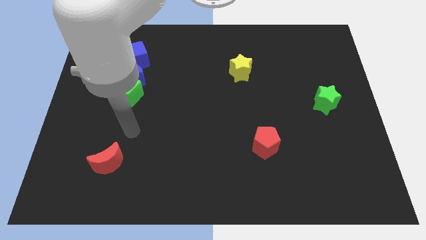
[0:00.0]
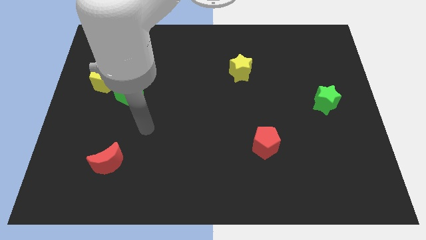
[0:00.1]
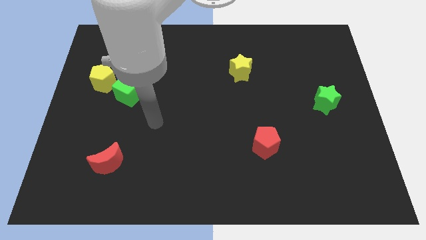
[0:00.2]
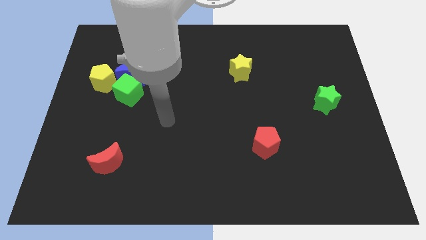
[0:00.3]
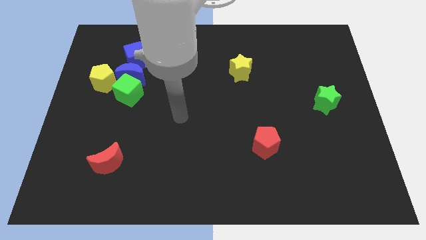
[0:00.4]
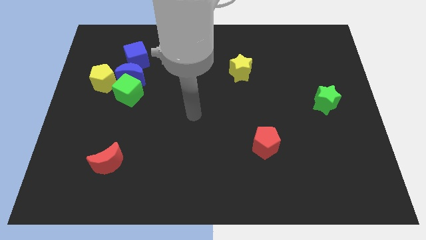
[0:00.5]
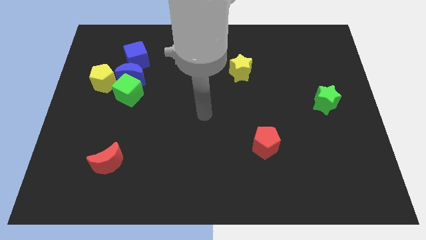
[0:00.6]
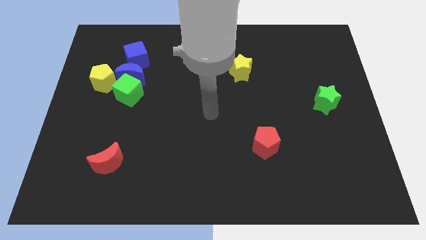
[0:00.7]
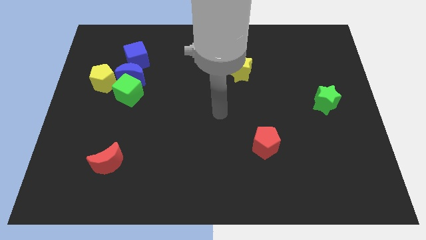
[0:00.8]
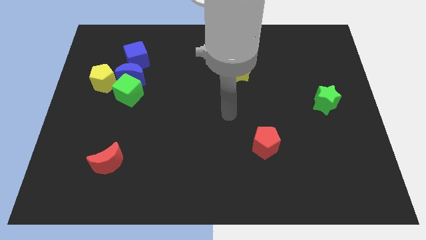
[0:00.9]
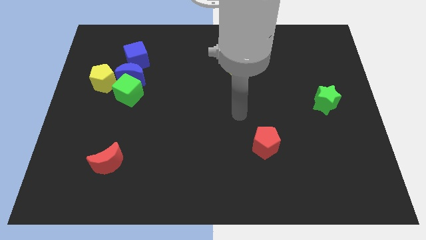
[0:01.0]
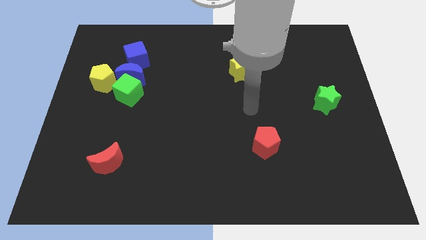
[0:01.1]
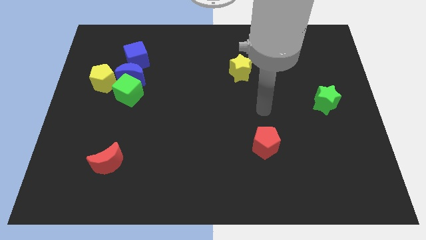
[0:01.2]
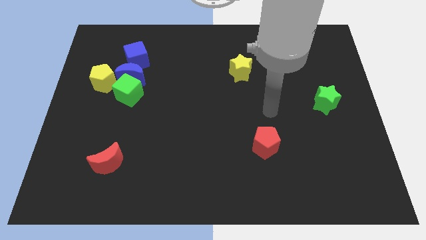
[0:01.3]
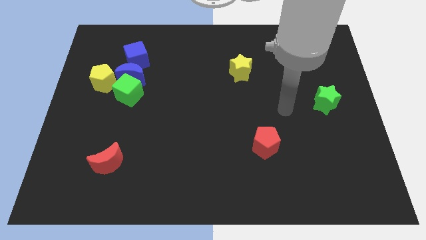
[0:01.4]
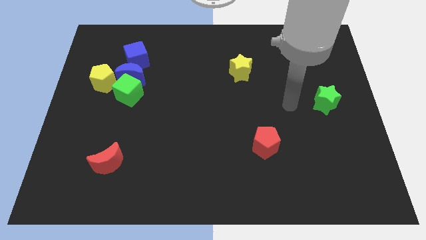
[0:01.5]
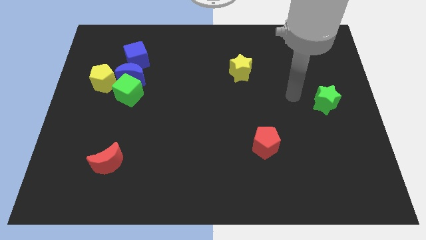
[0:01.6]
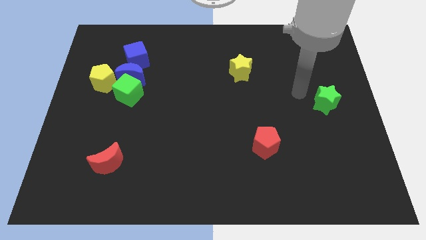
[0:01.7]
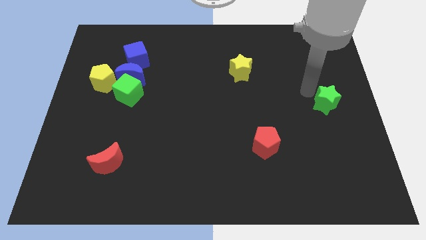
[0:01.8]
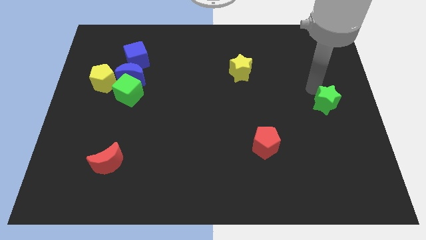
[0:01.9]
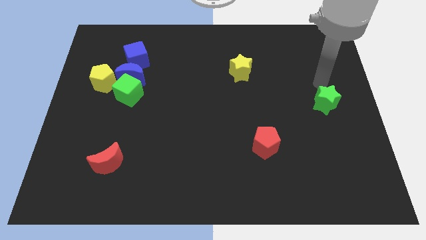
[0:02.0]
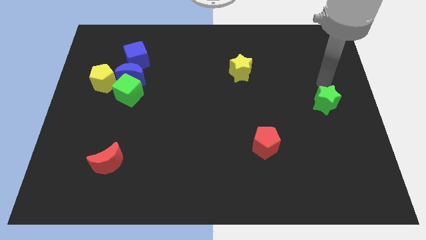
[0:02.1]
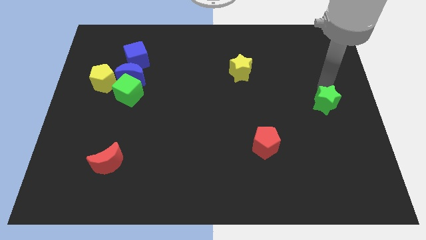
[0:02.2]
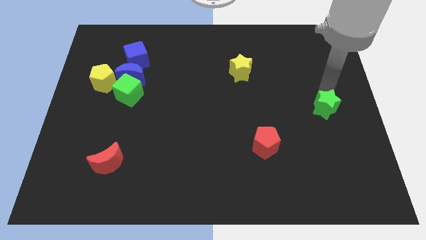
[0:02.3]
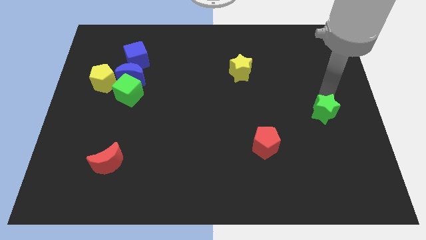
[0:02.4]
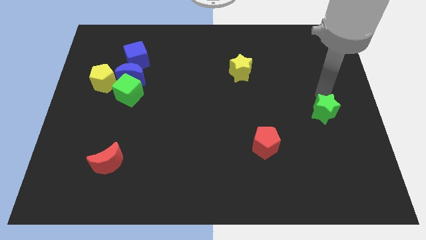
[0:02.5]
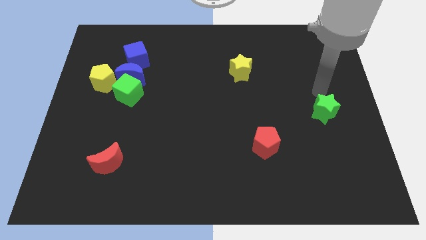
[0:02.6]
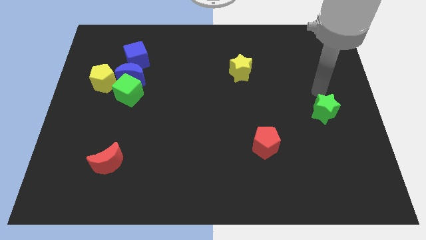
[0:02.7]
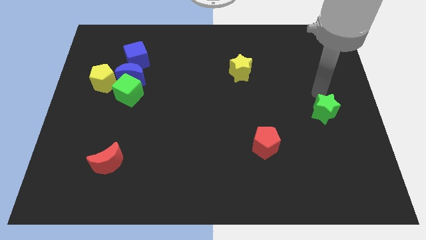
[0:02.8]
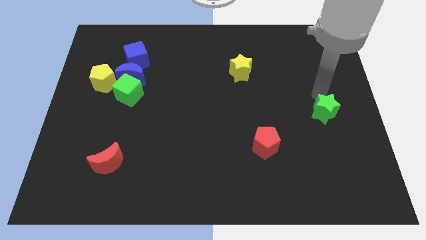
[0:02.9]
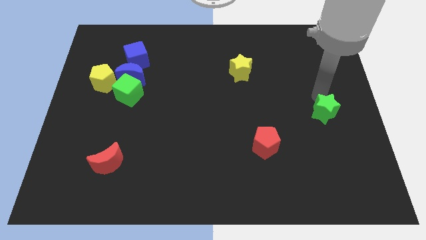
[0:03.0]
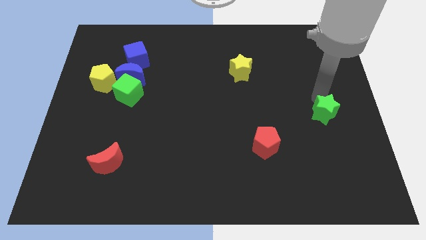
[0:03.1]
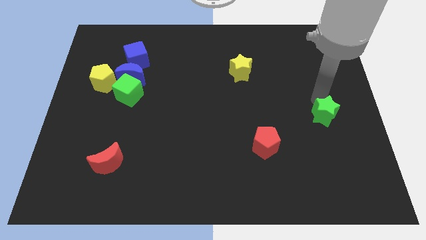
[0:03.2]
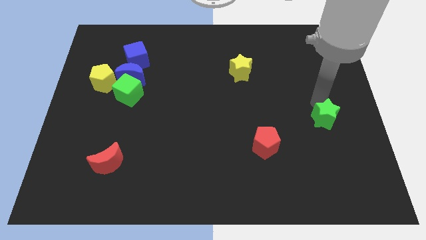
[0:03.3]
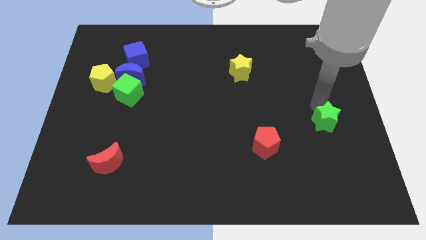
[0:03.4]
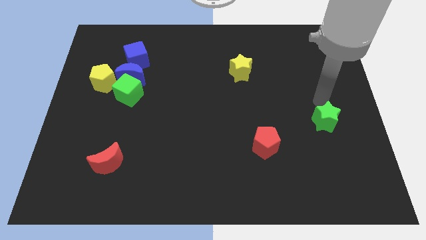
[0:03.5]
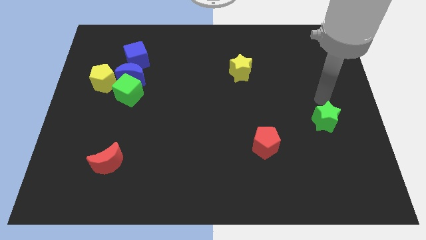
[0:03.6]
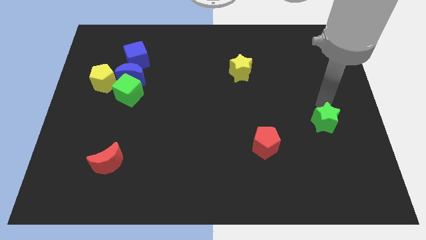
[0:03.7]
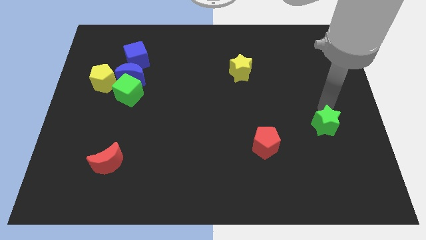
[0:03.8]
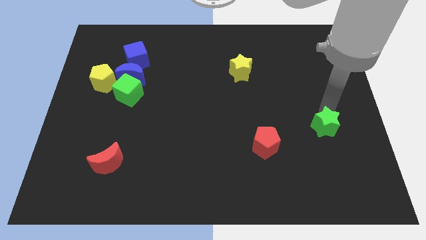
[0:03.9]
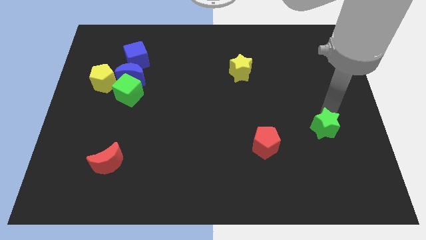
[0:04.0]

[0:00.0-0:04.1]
slide the green star slightly down

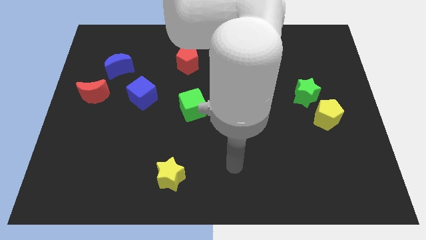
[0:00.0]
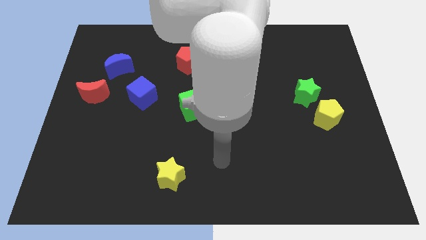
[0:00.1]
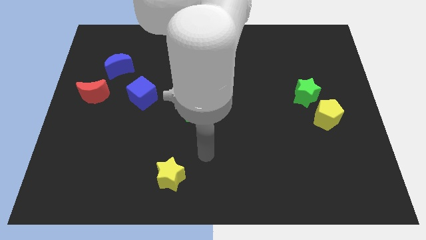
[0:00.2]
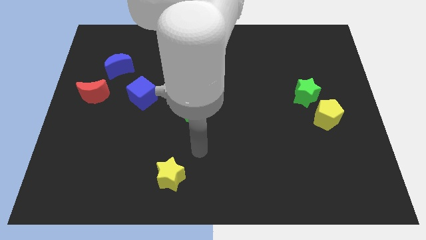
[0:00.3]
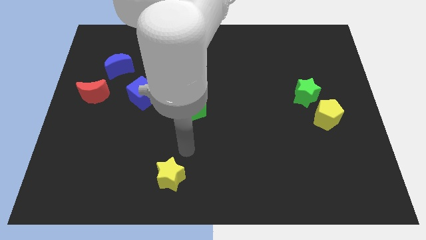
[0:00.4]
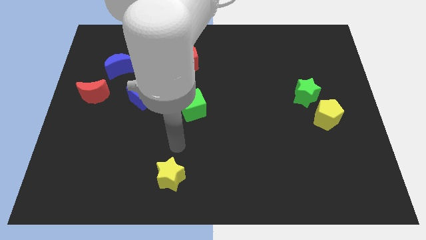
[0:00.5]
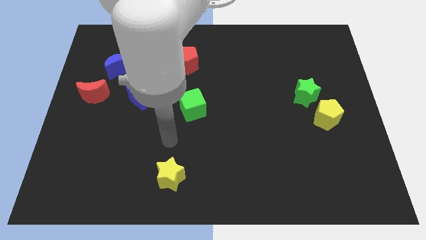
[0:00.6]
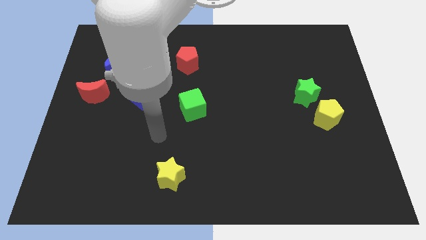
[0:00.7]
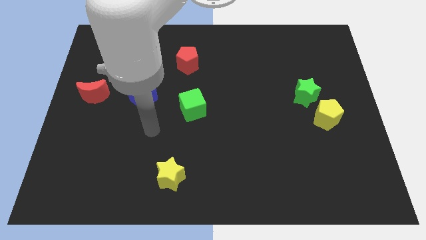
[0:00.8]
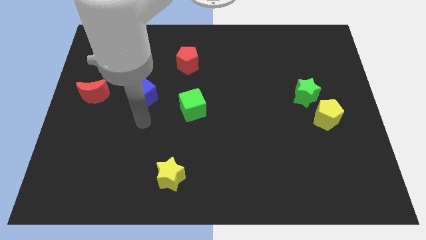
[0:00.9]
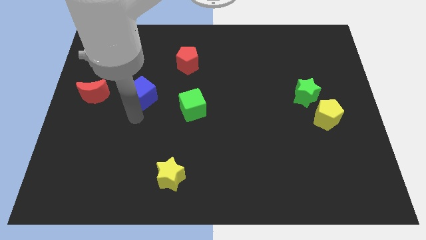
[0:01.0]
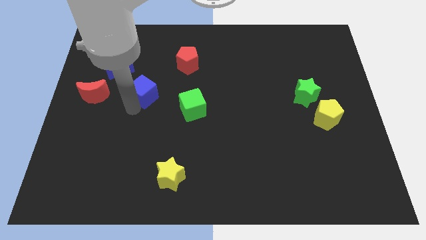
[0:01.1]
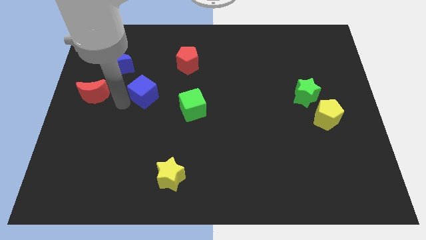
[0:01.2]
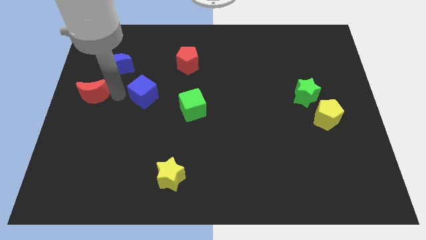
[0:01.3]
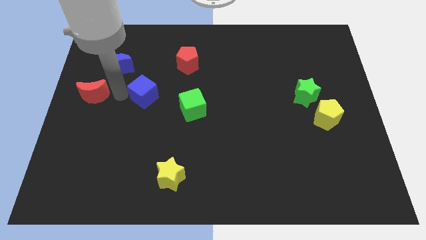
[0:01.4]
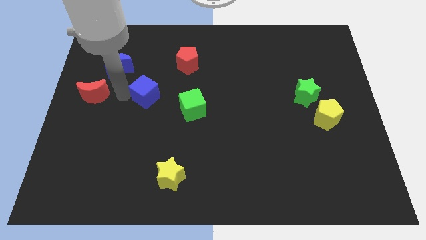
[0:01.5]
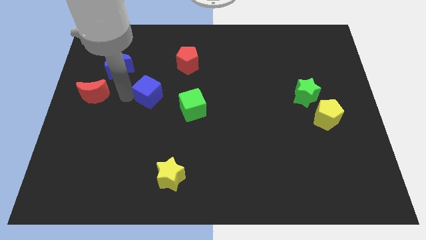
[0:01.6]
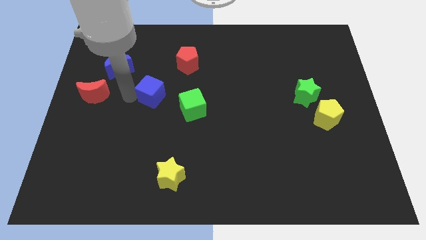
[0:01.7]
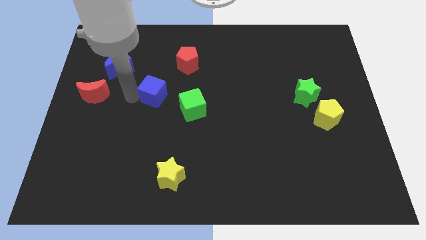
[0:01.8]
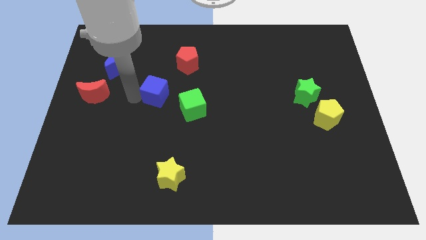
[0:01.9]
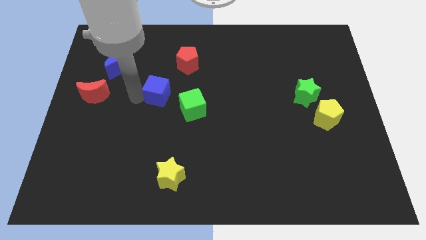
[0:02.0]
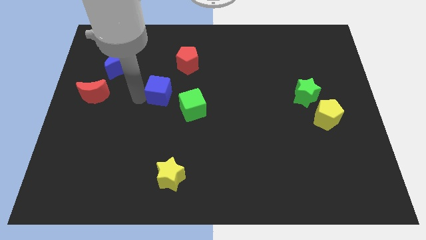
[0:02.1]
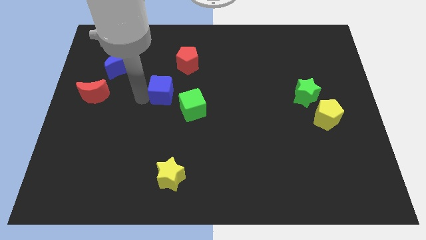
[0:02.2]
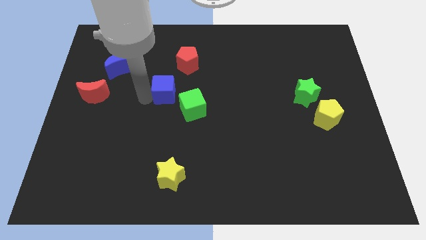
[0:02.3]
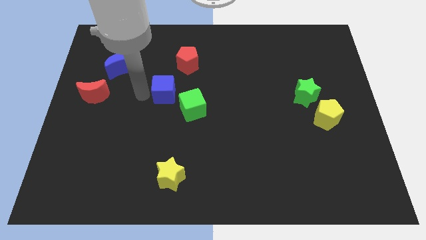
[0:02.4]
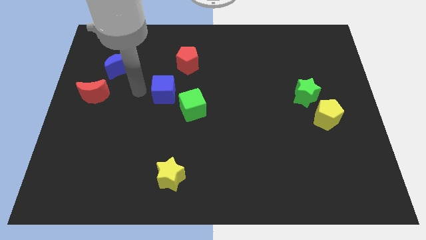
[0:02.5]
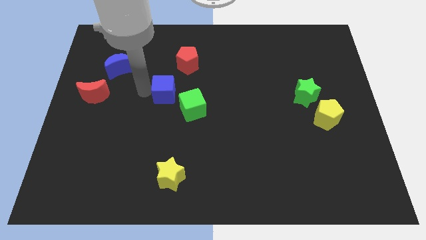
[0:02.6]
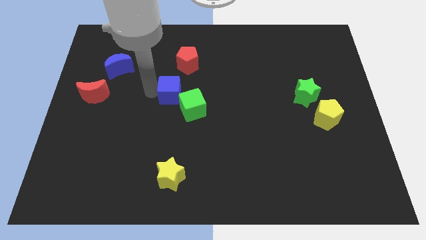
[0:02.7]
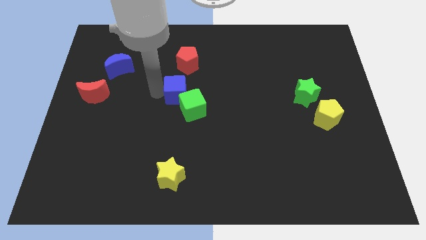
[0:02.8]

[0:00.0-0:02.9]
move the blue cube right a bit

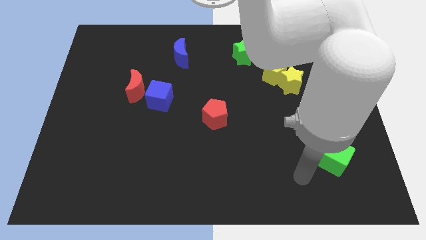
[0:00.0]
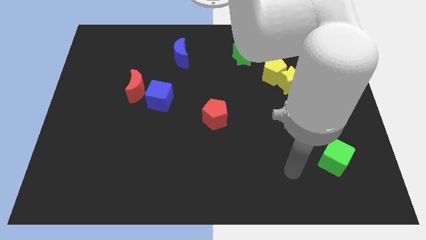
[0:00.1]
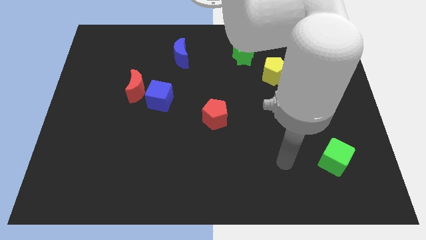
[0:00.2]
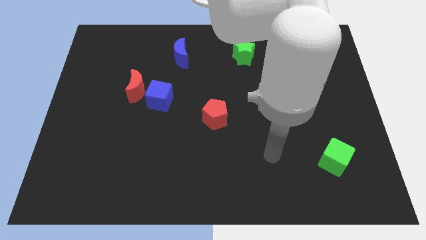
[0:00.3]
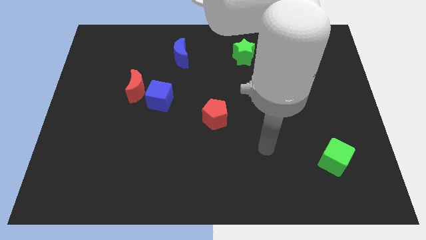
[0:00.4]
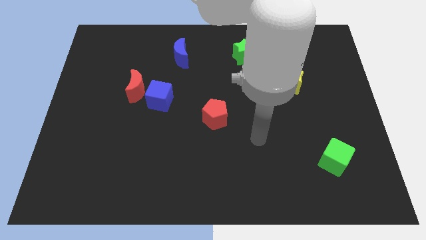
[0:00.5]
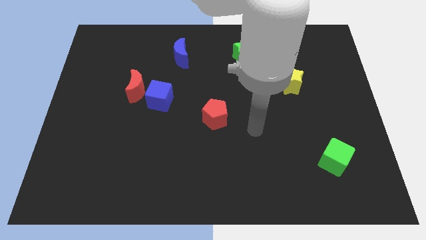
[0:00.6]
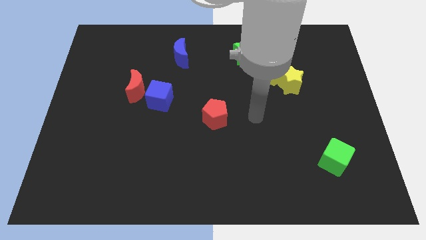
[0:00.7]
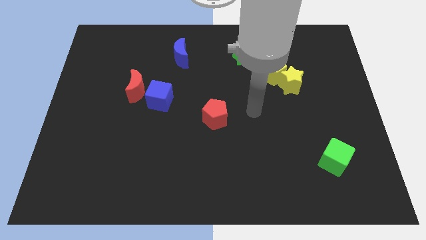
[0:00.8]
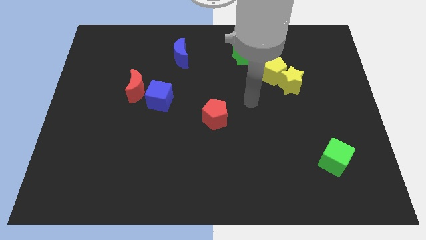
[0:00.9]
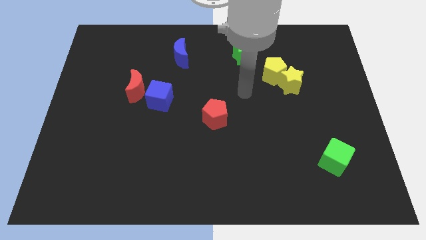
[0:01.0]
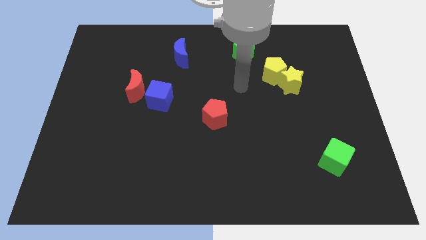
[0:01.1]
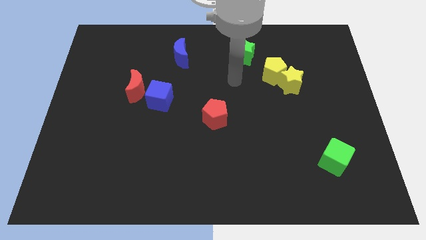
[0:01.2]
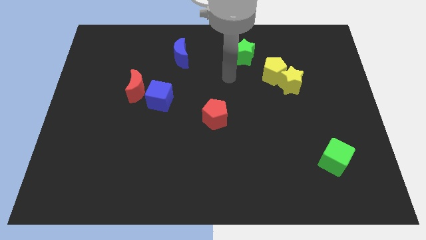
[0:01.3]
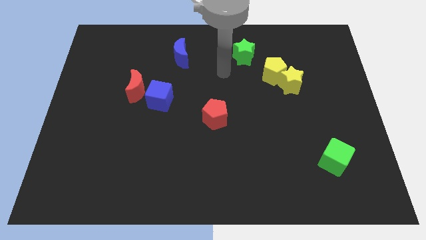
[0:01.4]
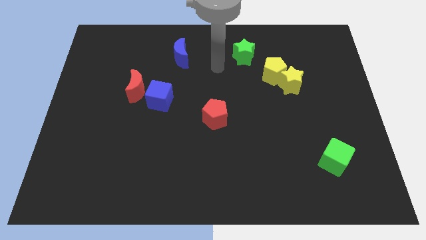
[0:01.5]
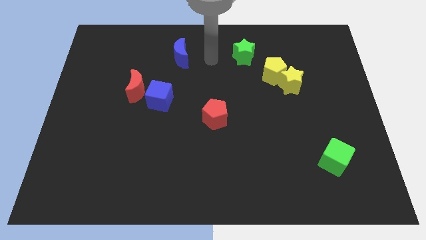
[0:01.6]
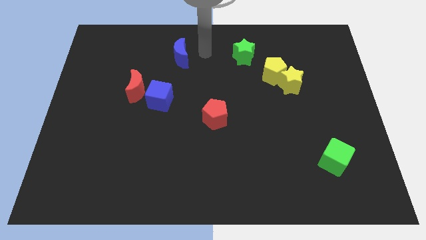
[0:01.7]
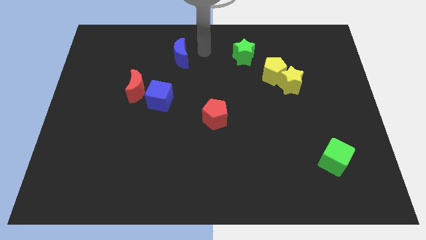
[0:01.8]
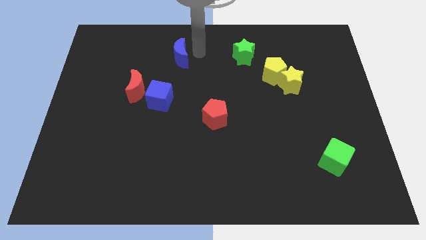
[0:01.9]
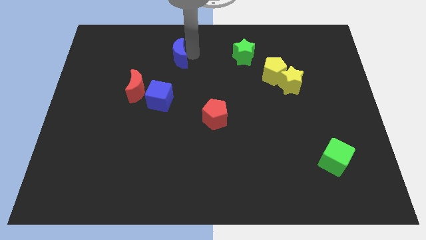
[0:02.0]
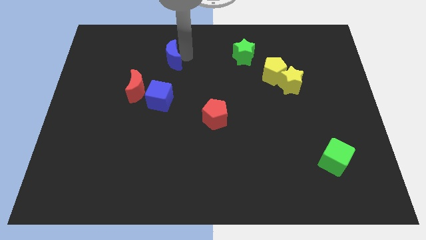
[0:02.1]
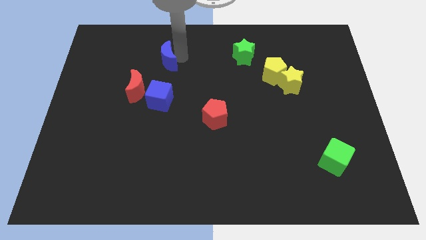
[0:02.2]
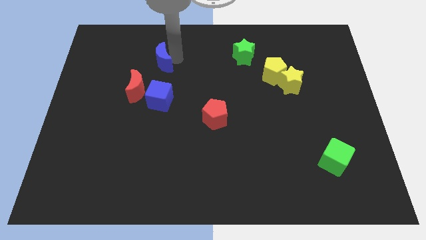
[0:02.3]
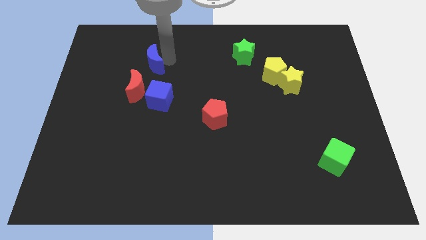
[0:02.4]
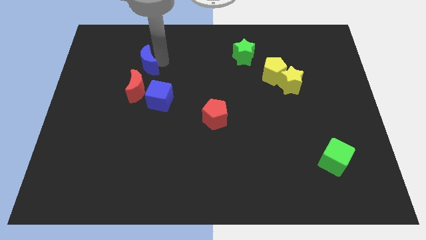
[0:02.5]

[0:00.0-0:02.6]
push the blue moon somewhat diagonally downwards and left
